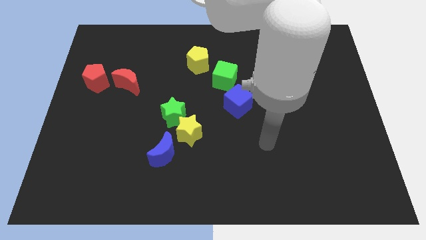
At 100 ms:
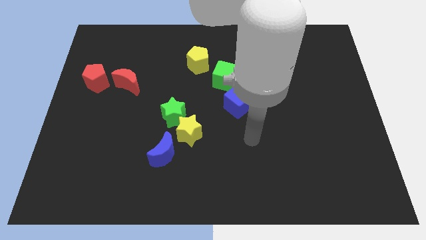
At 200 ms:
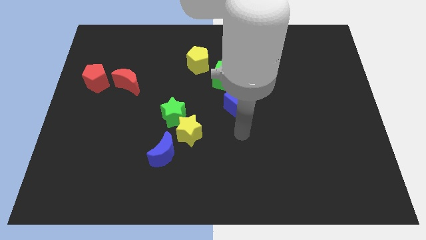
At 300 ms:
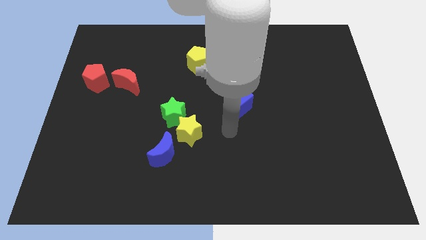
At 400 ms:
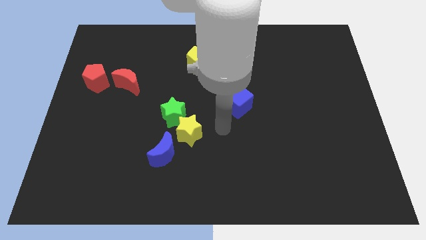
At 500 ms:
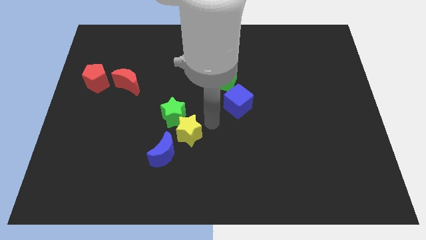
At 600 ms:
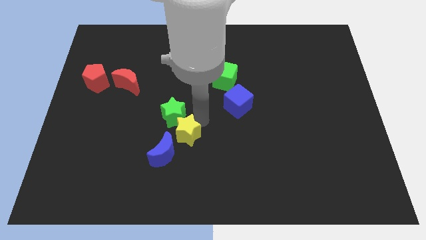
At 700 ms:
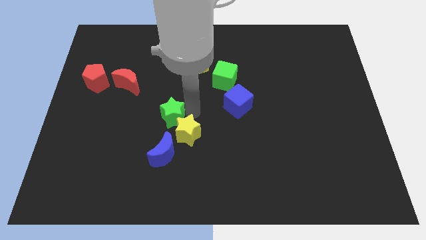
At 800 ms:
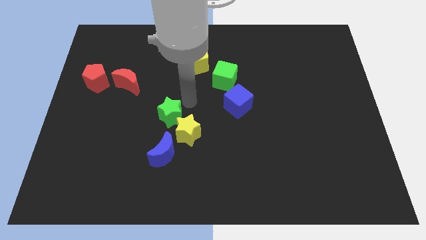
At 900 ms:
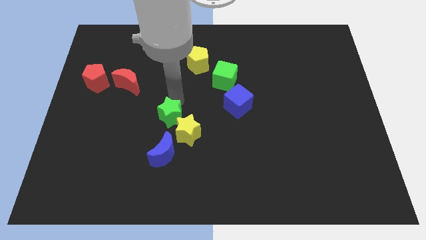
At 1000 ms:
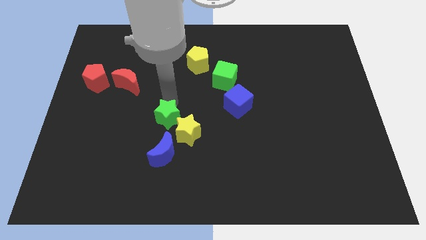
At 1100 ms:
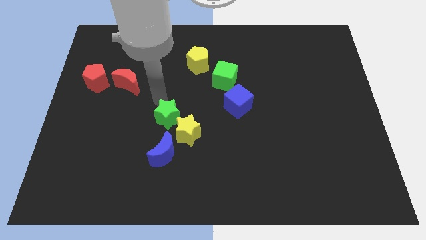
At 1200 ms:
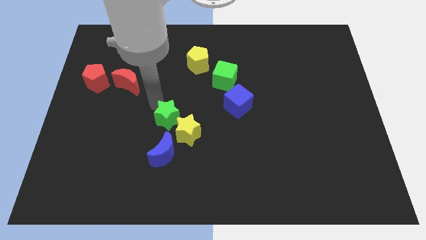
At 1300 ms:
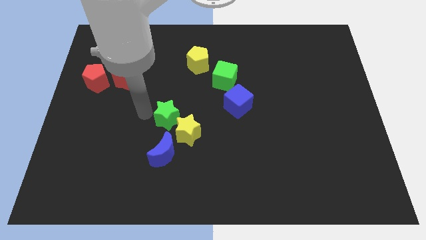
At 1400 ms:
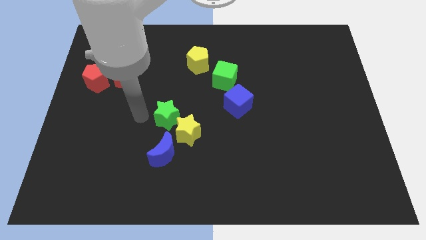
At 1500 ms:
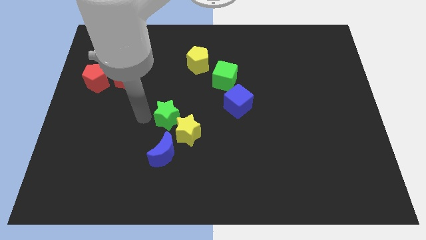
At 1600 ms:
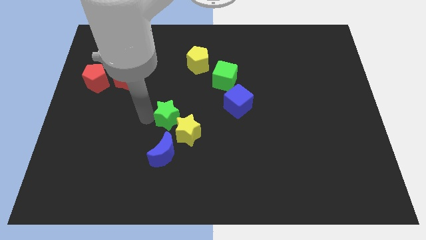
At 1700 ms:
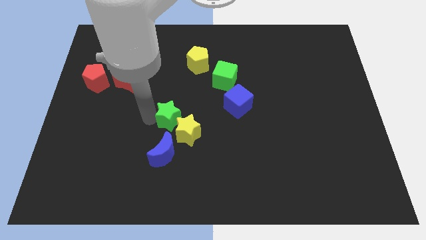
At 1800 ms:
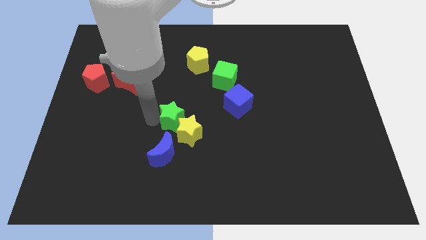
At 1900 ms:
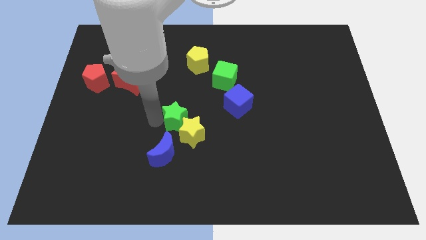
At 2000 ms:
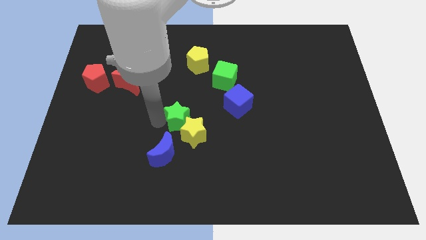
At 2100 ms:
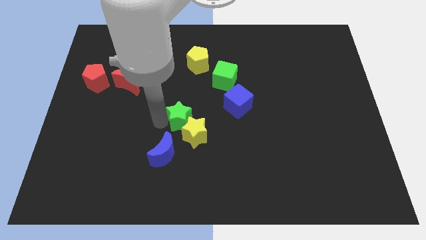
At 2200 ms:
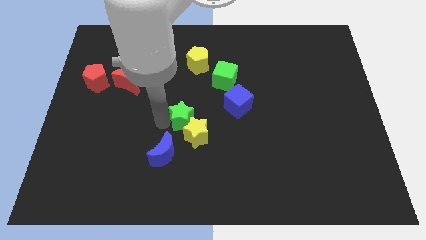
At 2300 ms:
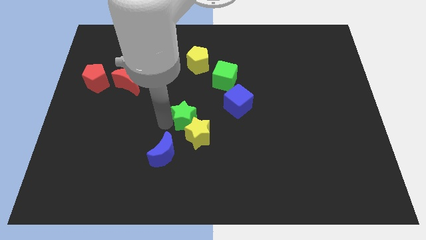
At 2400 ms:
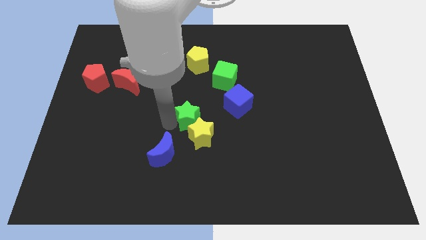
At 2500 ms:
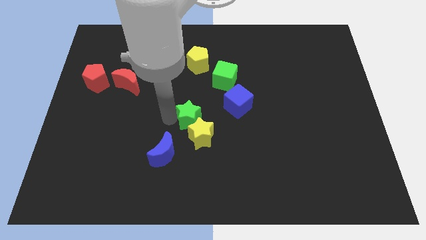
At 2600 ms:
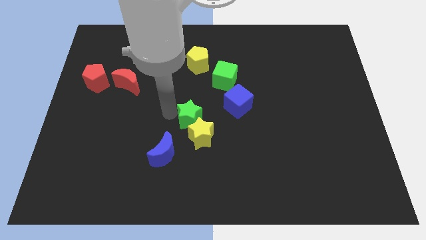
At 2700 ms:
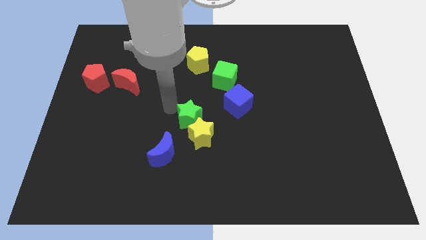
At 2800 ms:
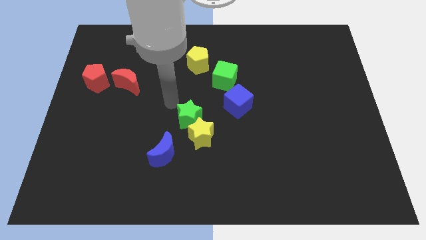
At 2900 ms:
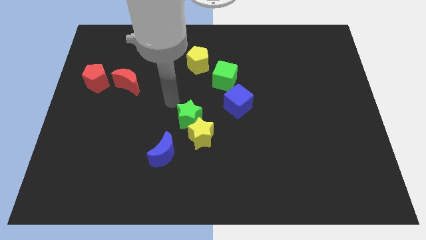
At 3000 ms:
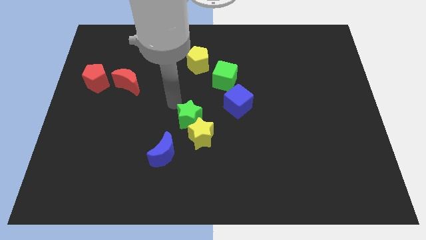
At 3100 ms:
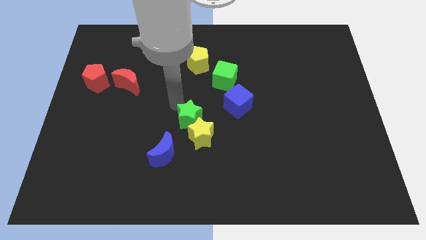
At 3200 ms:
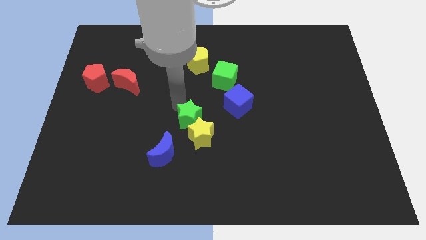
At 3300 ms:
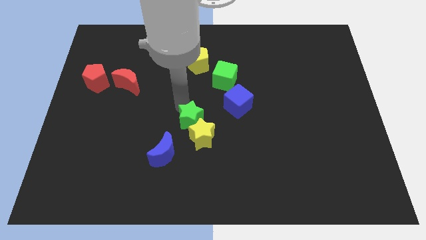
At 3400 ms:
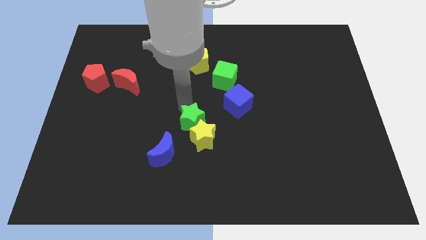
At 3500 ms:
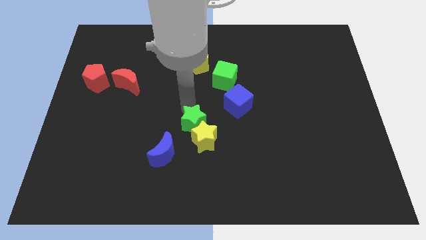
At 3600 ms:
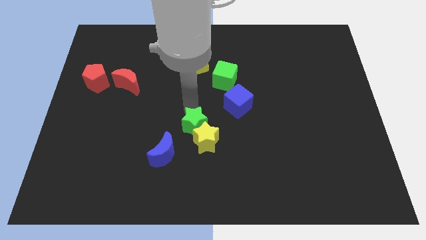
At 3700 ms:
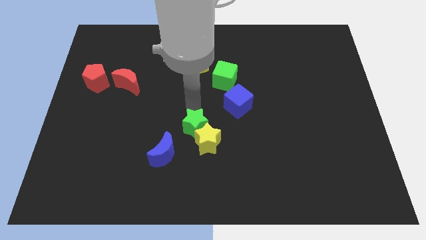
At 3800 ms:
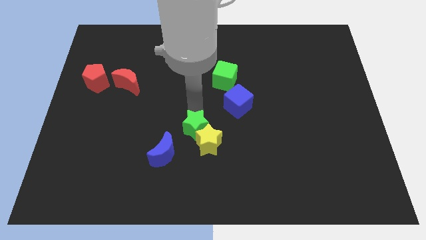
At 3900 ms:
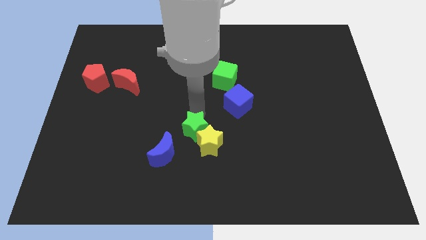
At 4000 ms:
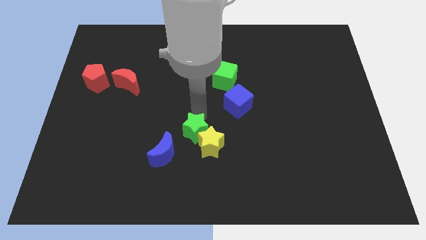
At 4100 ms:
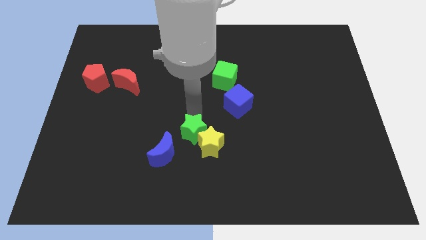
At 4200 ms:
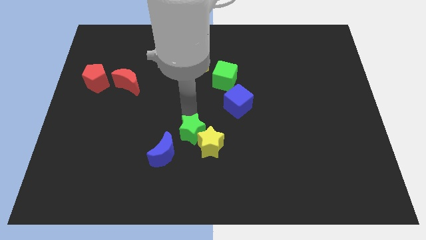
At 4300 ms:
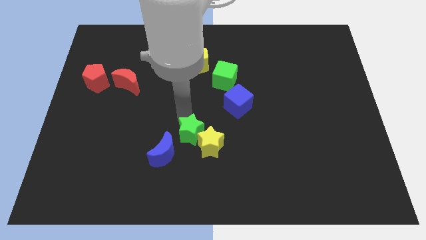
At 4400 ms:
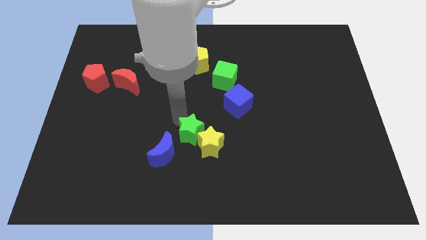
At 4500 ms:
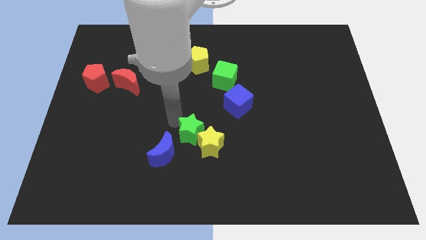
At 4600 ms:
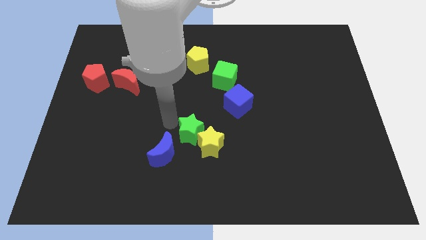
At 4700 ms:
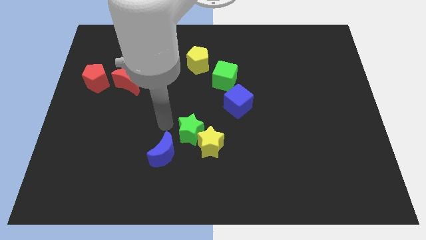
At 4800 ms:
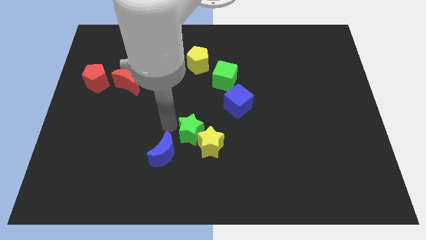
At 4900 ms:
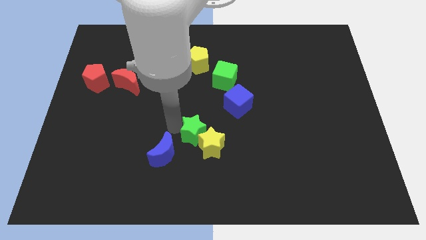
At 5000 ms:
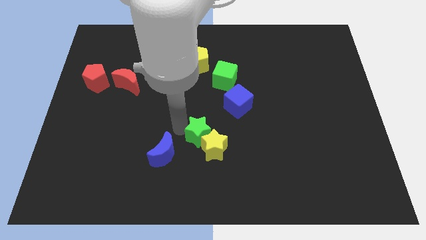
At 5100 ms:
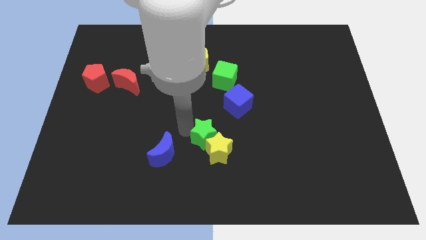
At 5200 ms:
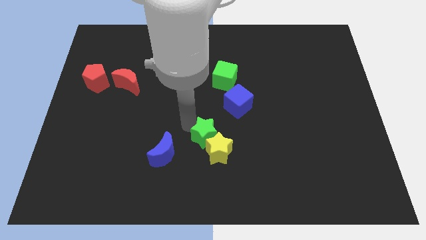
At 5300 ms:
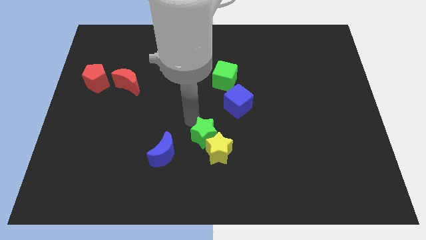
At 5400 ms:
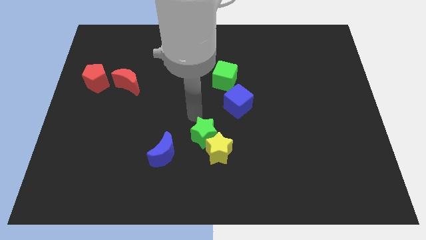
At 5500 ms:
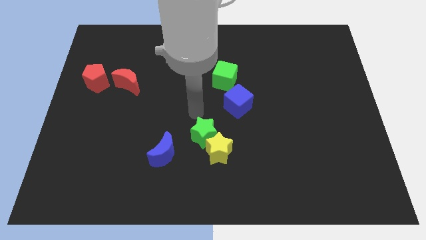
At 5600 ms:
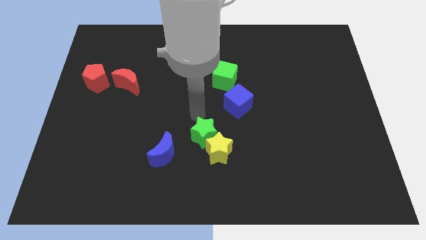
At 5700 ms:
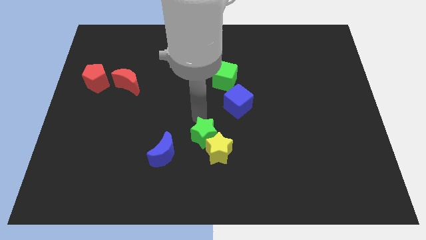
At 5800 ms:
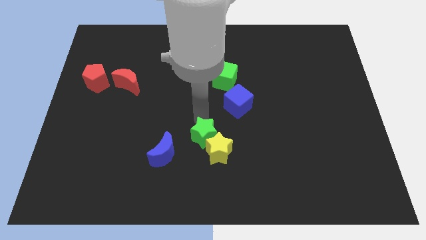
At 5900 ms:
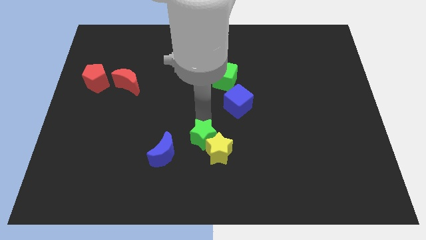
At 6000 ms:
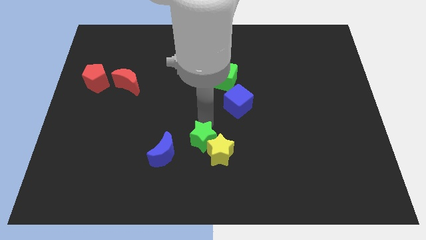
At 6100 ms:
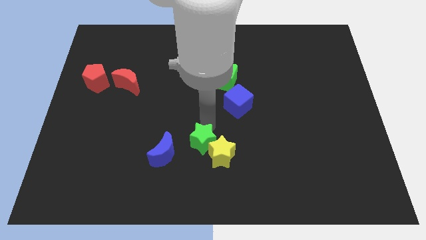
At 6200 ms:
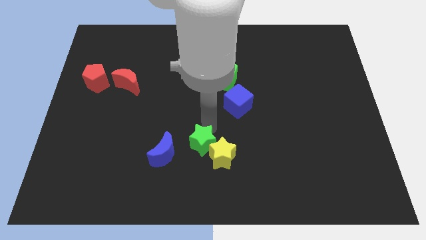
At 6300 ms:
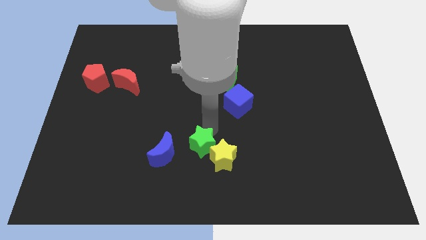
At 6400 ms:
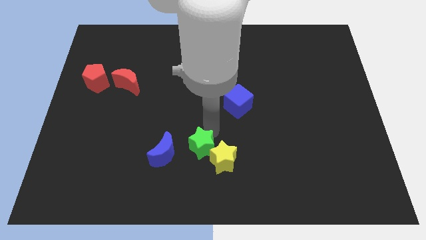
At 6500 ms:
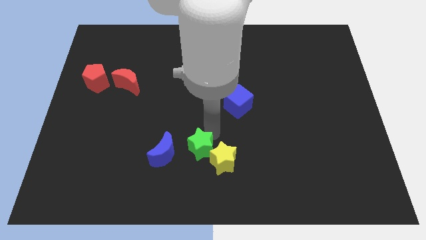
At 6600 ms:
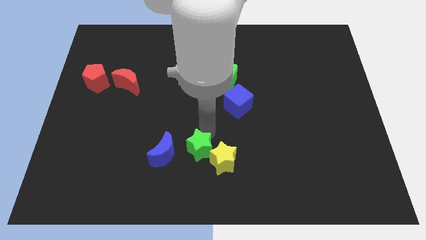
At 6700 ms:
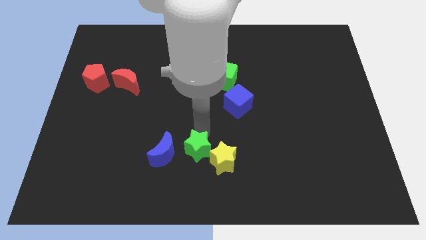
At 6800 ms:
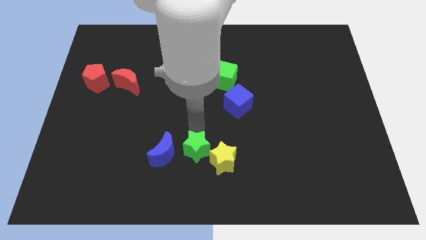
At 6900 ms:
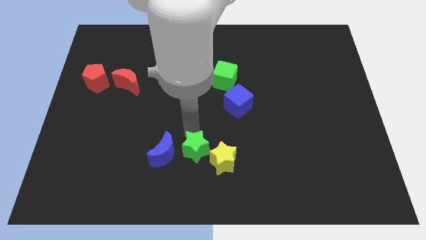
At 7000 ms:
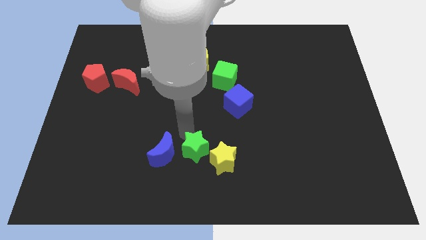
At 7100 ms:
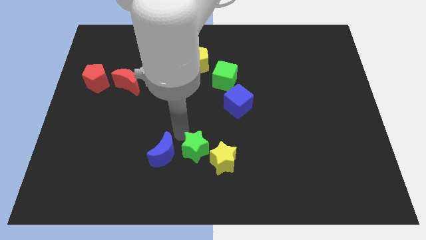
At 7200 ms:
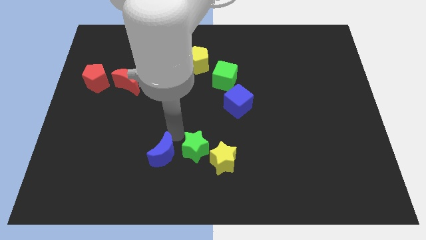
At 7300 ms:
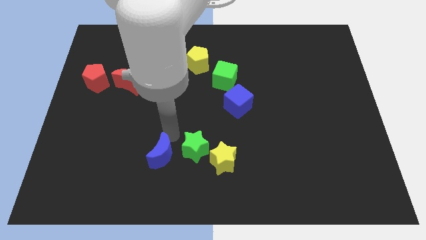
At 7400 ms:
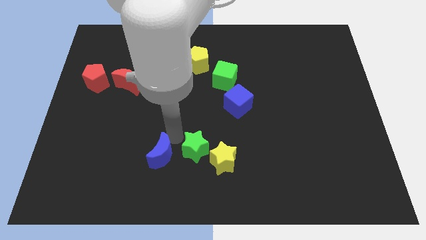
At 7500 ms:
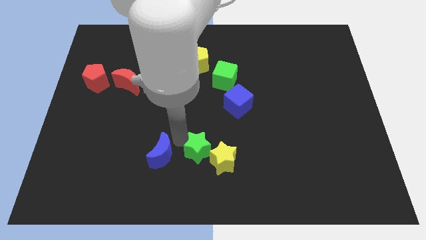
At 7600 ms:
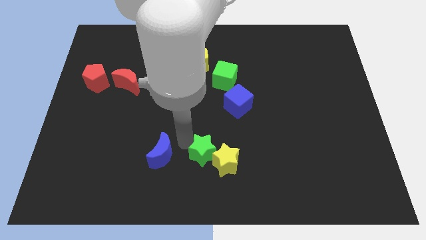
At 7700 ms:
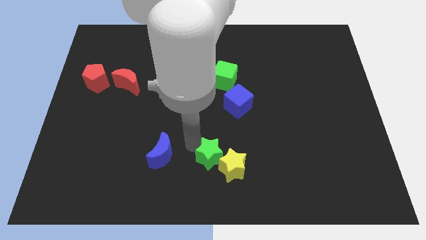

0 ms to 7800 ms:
move the green star to the bottom
